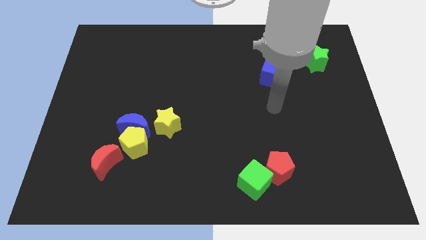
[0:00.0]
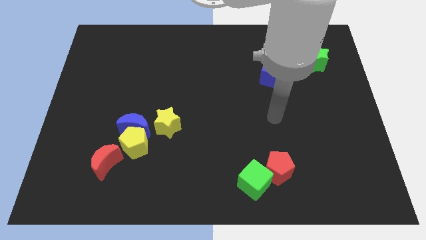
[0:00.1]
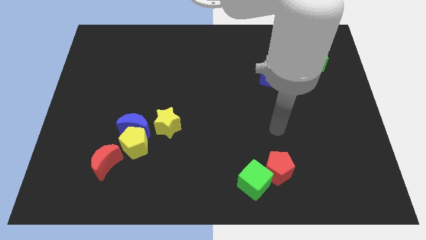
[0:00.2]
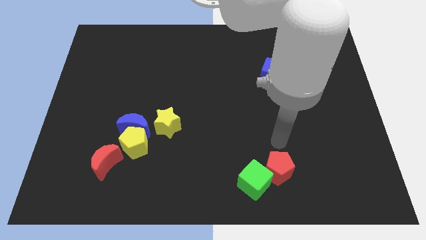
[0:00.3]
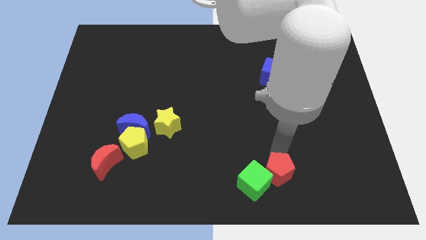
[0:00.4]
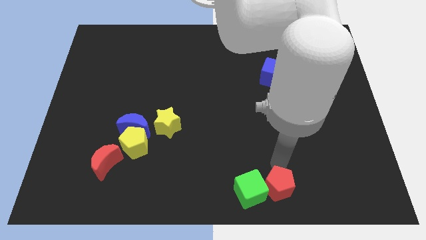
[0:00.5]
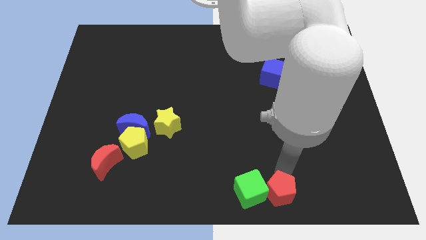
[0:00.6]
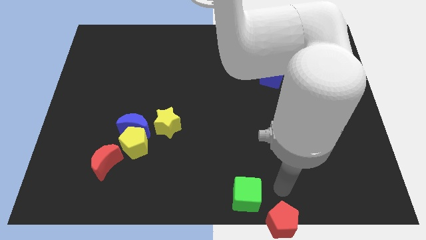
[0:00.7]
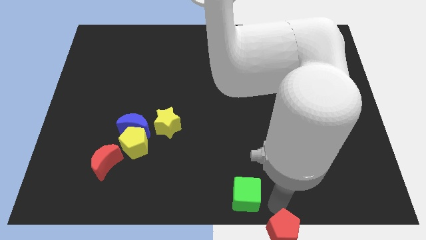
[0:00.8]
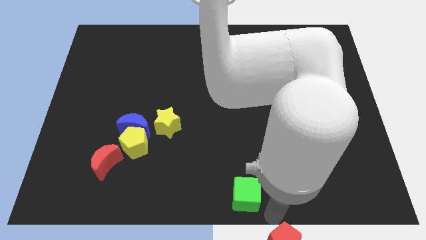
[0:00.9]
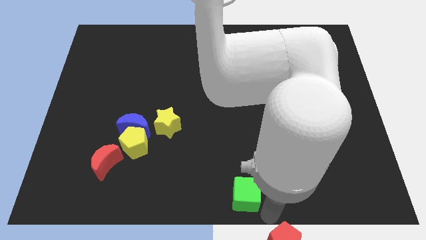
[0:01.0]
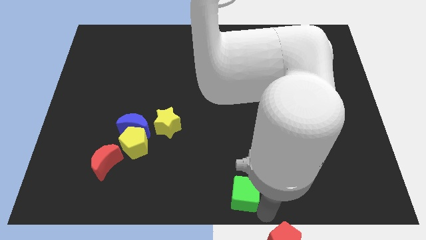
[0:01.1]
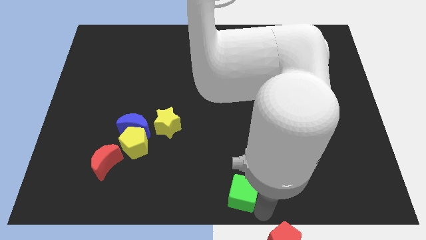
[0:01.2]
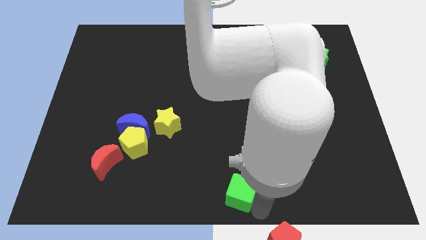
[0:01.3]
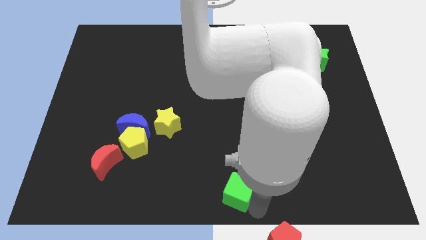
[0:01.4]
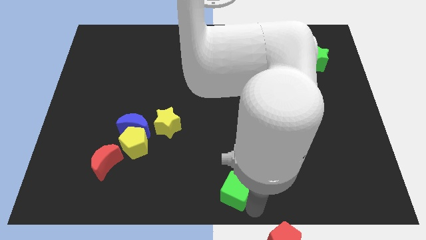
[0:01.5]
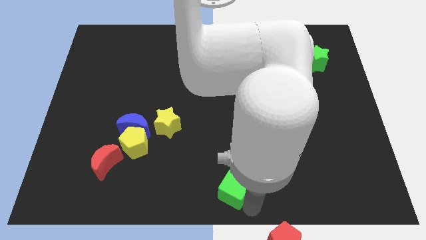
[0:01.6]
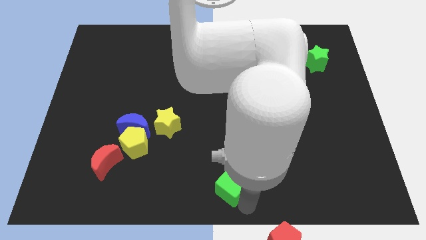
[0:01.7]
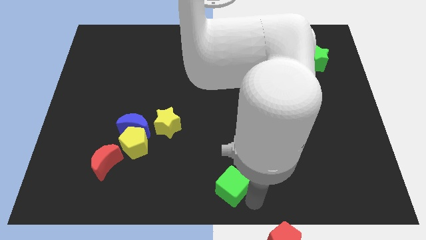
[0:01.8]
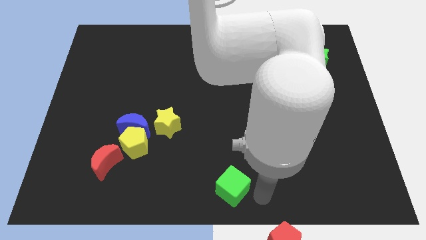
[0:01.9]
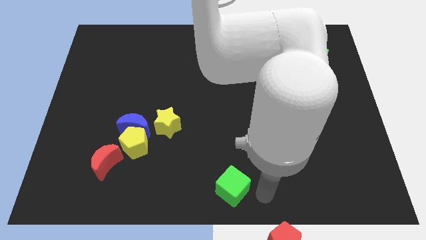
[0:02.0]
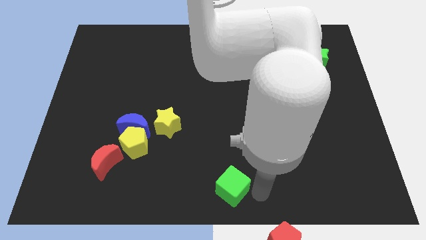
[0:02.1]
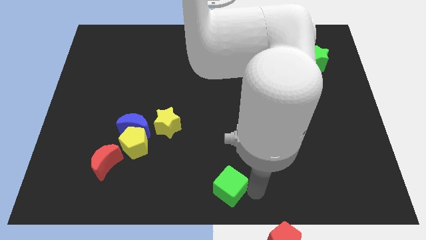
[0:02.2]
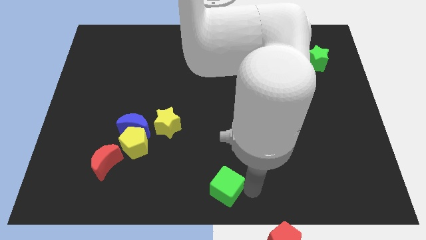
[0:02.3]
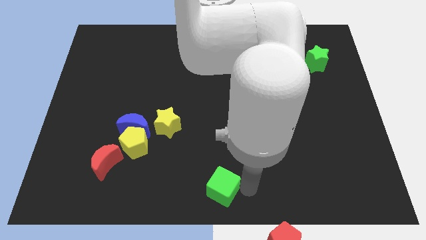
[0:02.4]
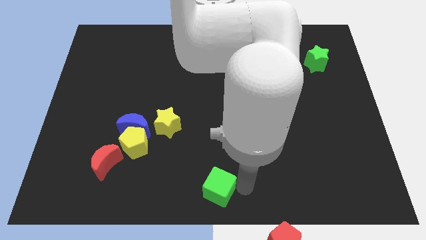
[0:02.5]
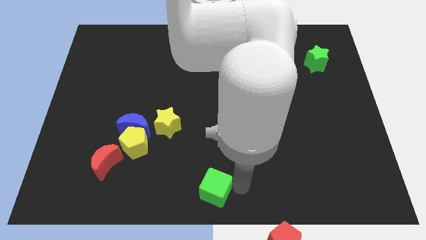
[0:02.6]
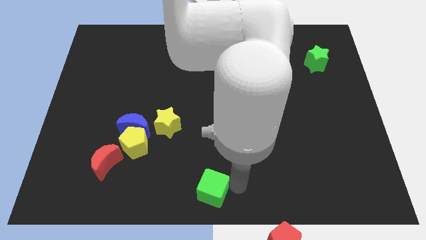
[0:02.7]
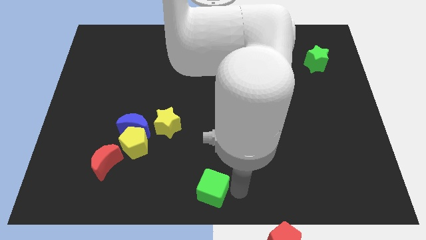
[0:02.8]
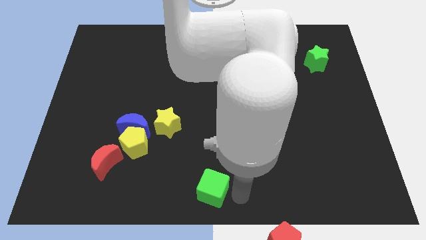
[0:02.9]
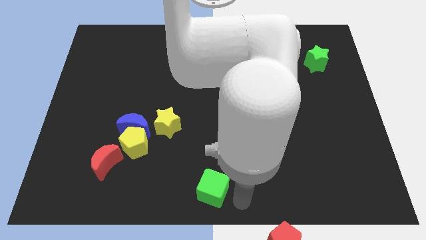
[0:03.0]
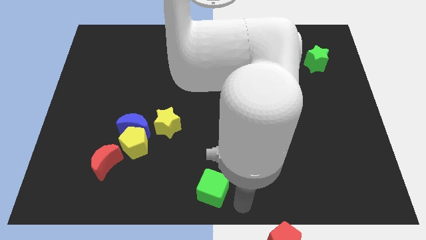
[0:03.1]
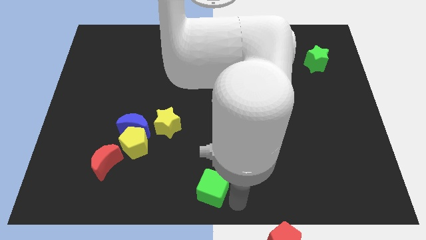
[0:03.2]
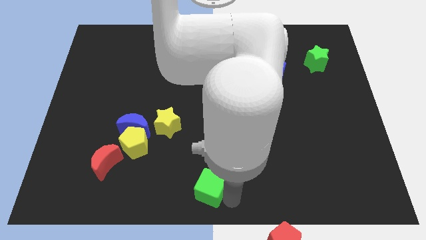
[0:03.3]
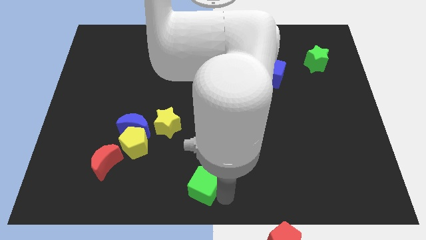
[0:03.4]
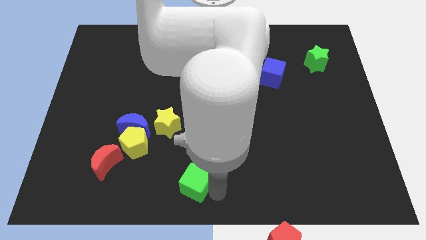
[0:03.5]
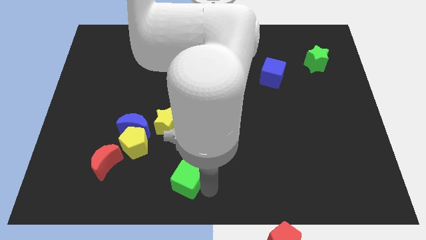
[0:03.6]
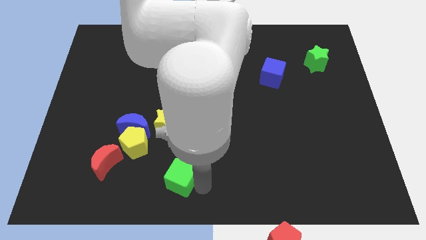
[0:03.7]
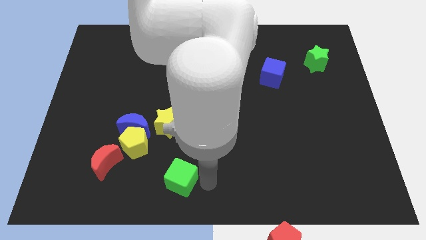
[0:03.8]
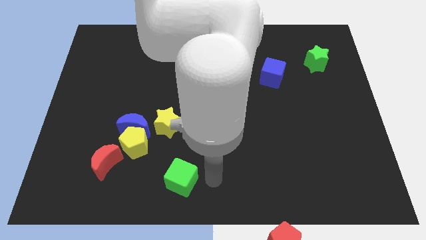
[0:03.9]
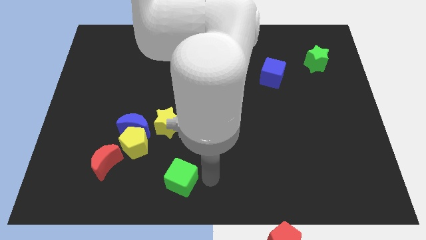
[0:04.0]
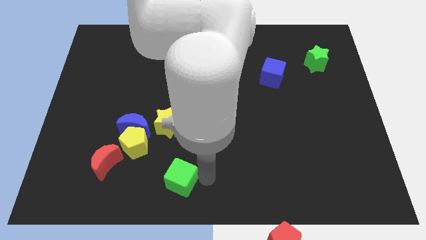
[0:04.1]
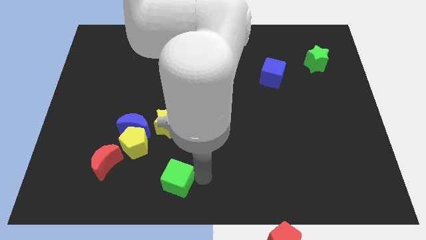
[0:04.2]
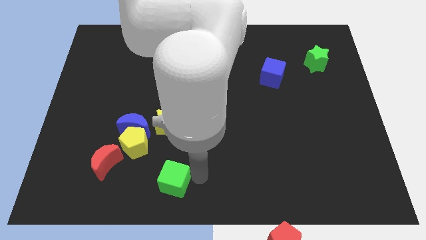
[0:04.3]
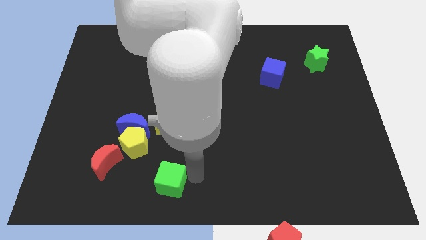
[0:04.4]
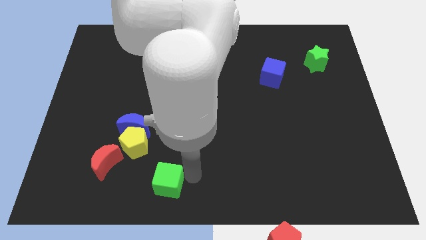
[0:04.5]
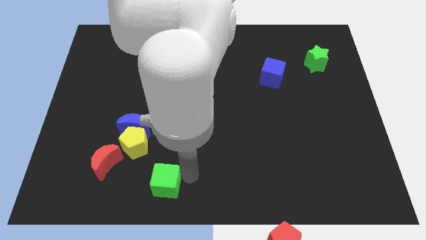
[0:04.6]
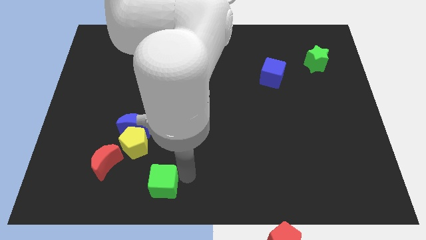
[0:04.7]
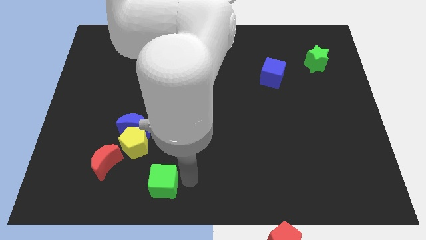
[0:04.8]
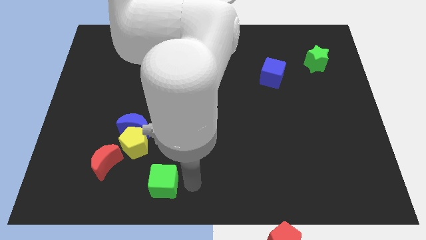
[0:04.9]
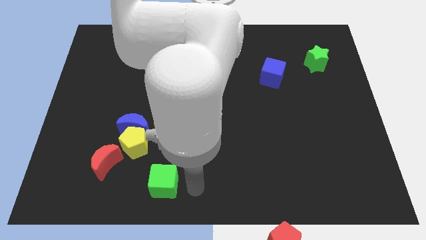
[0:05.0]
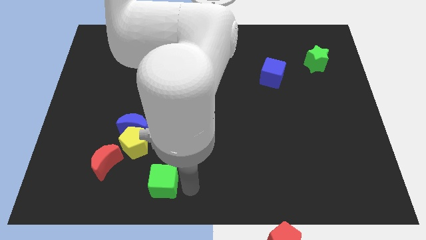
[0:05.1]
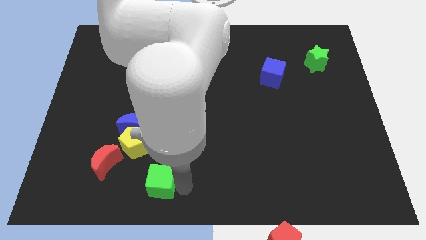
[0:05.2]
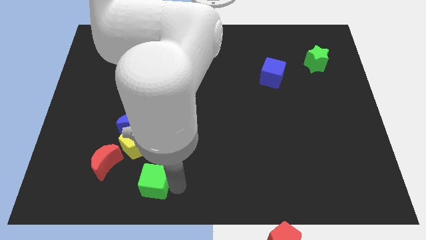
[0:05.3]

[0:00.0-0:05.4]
move the green cube left

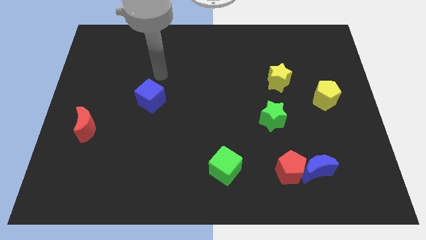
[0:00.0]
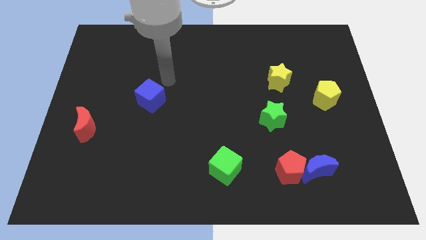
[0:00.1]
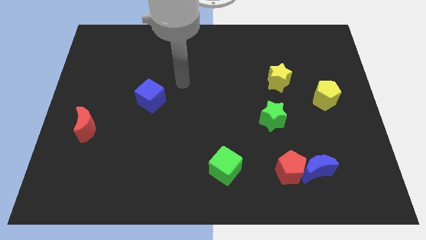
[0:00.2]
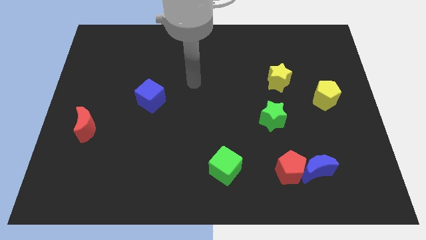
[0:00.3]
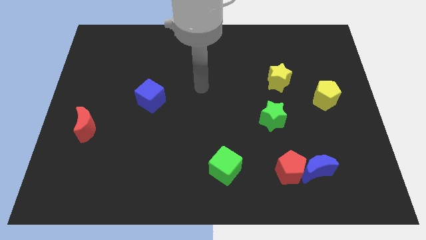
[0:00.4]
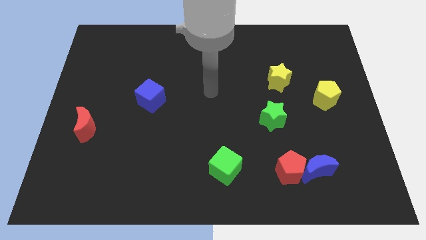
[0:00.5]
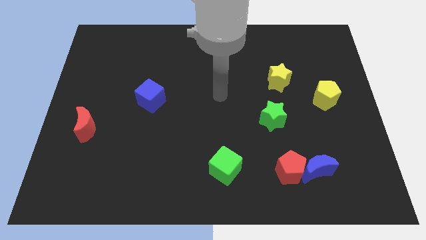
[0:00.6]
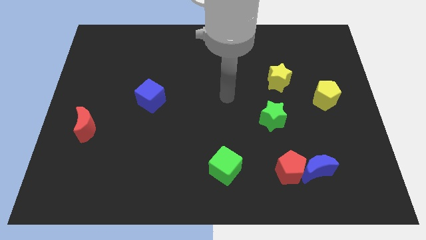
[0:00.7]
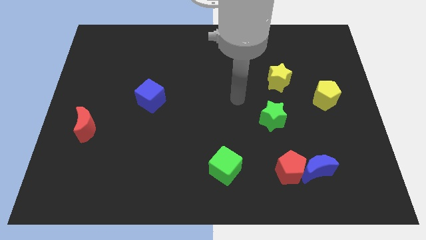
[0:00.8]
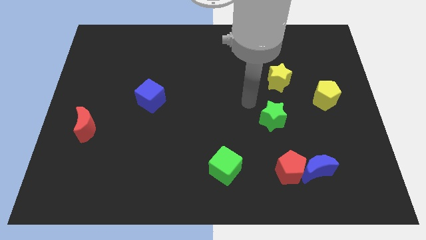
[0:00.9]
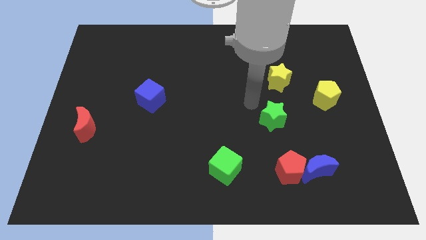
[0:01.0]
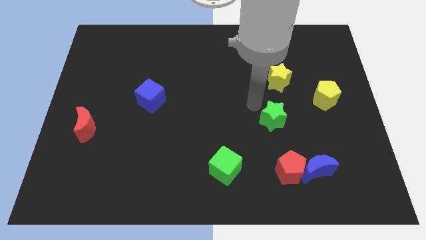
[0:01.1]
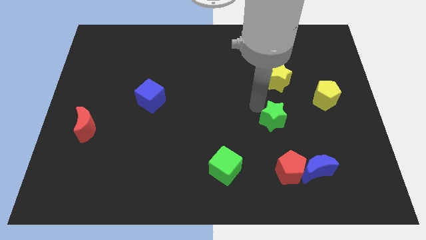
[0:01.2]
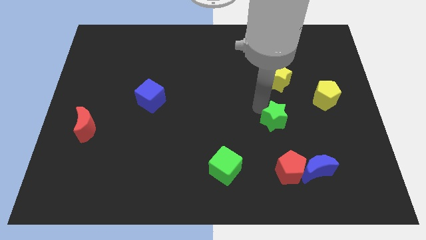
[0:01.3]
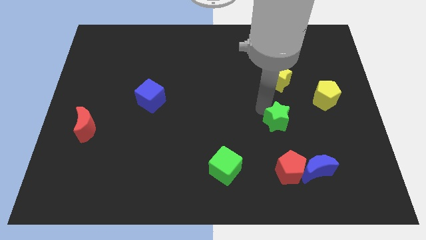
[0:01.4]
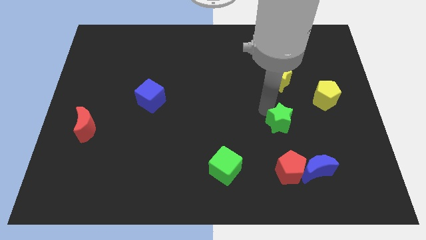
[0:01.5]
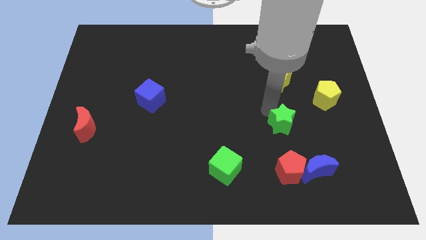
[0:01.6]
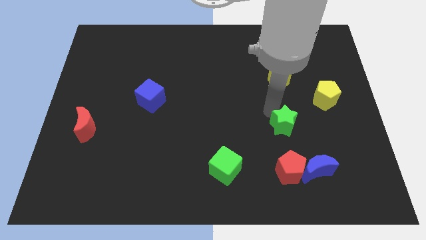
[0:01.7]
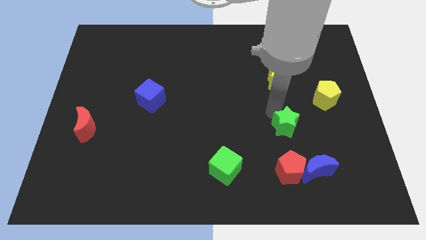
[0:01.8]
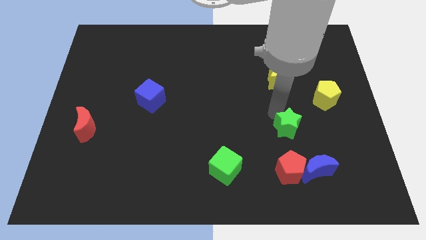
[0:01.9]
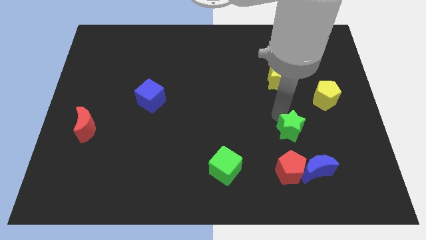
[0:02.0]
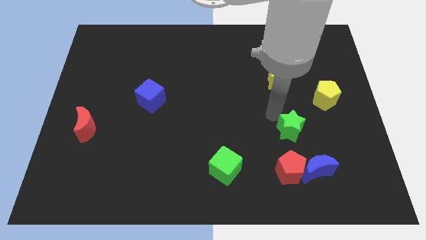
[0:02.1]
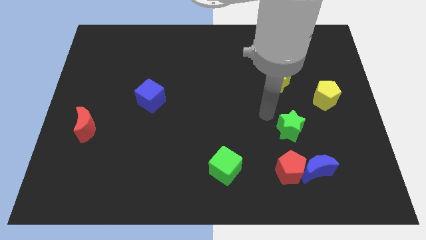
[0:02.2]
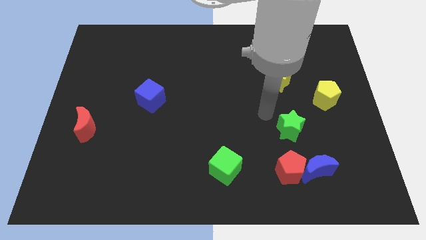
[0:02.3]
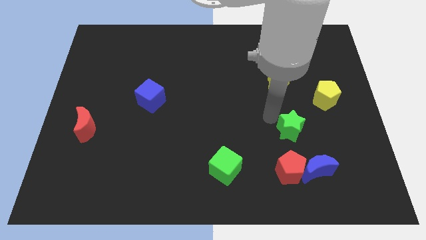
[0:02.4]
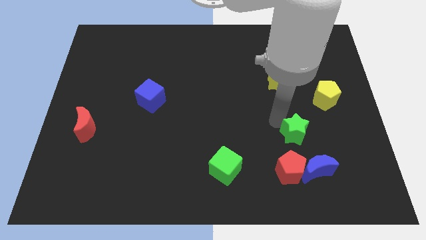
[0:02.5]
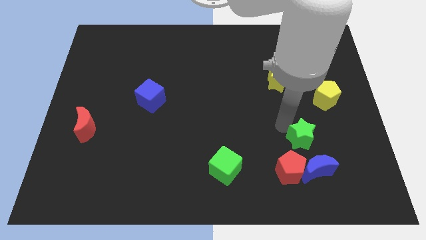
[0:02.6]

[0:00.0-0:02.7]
push the green star a little downwards and then to the right
